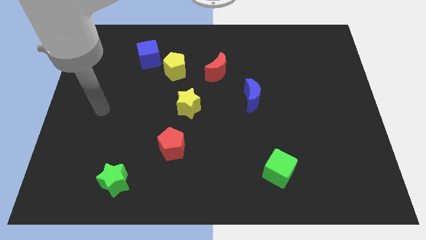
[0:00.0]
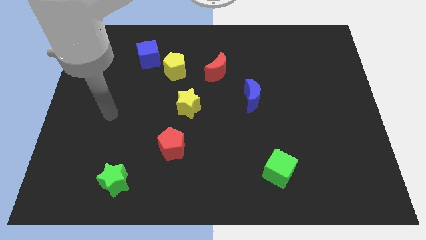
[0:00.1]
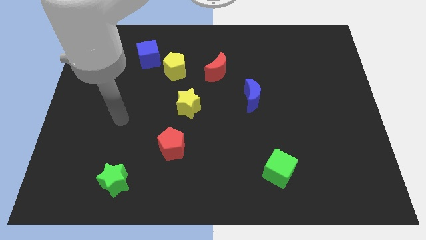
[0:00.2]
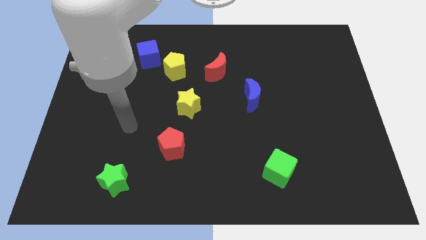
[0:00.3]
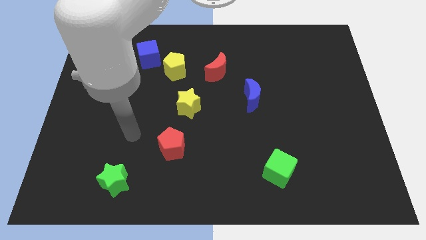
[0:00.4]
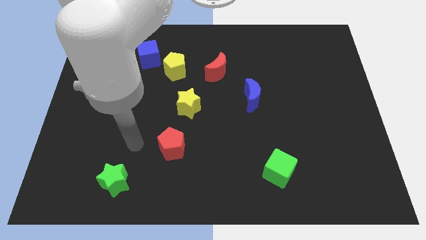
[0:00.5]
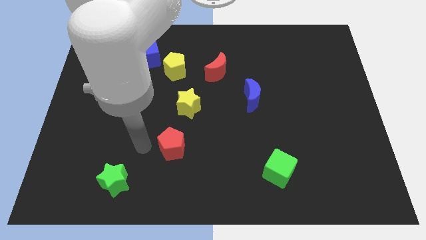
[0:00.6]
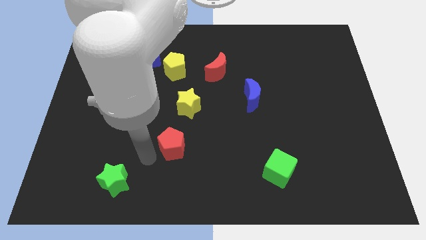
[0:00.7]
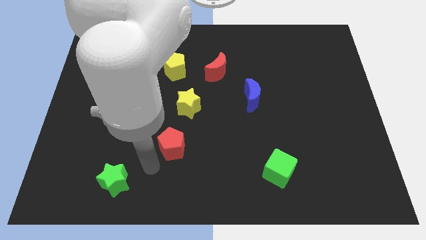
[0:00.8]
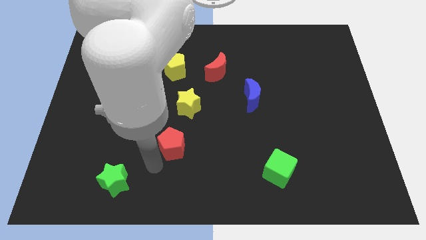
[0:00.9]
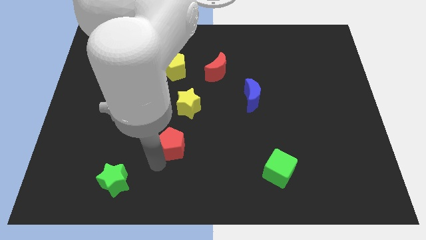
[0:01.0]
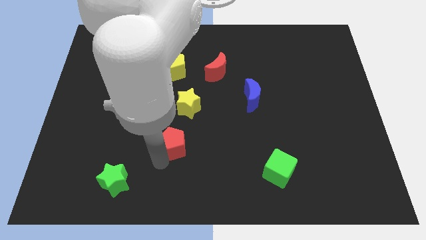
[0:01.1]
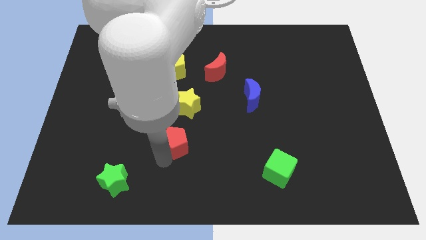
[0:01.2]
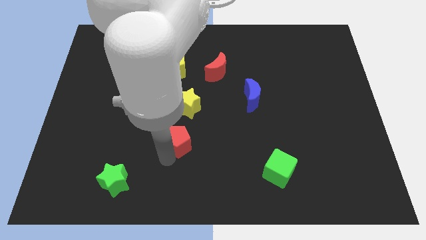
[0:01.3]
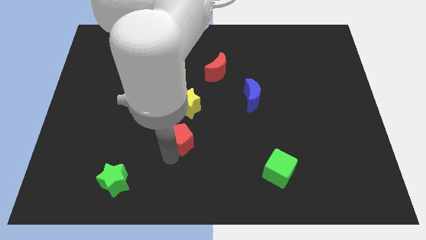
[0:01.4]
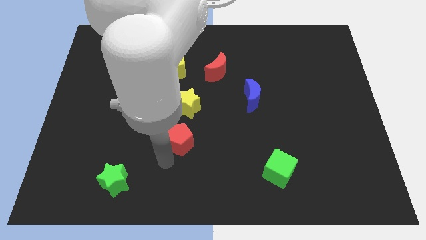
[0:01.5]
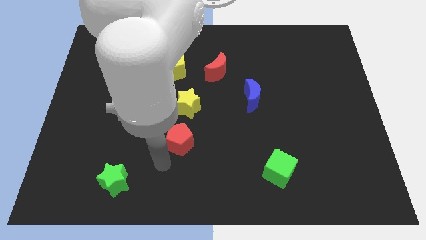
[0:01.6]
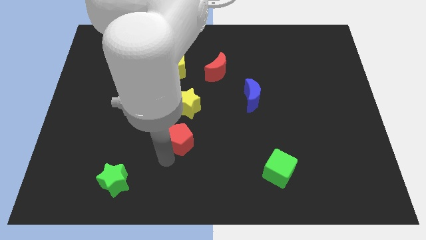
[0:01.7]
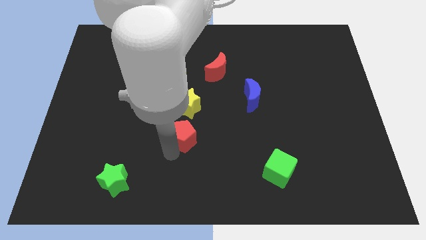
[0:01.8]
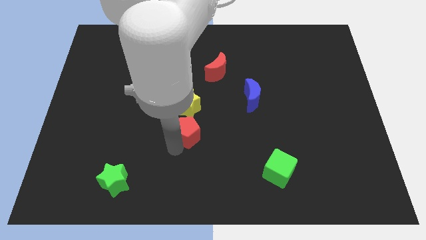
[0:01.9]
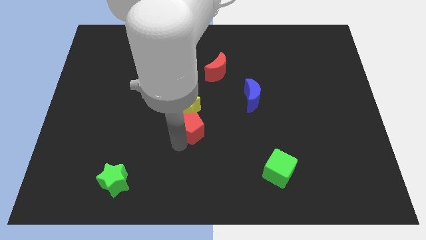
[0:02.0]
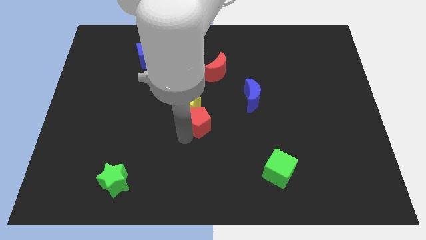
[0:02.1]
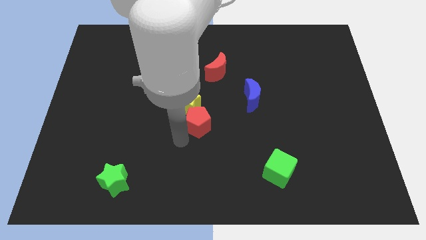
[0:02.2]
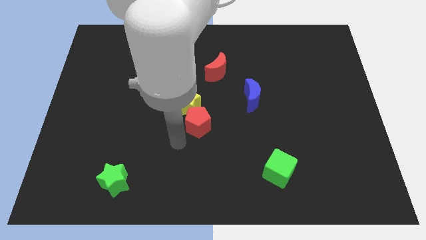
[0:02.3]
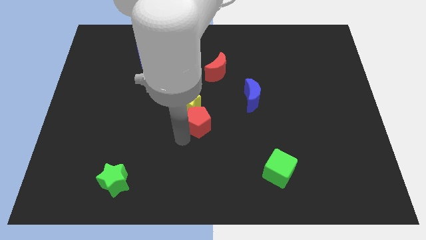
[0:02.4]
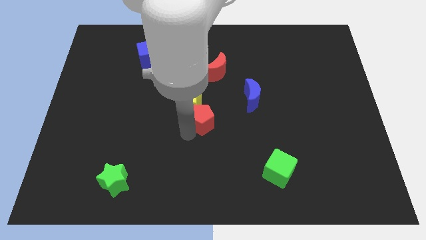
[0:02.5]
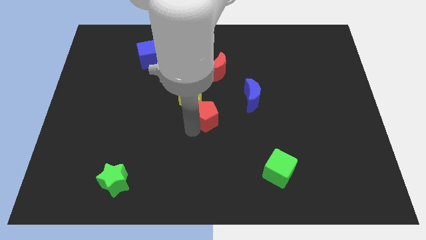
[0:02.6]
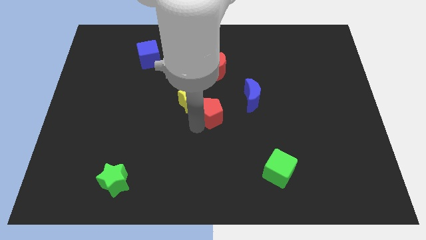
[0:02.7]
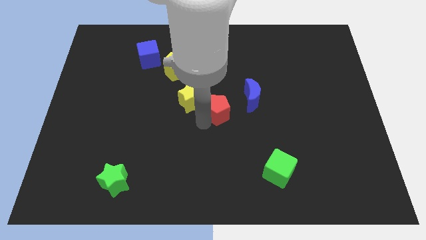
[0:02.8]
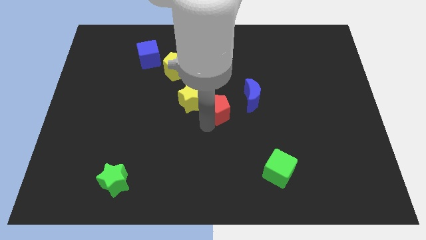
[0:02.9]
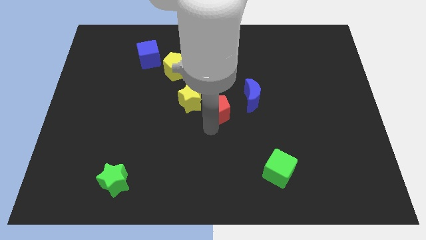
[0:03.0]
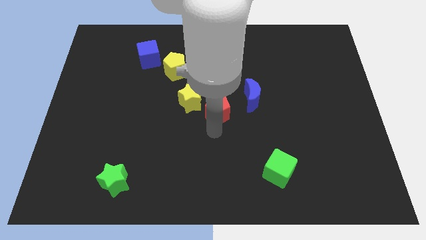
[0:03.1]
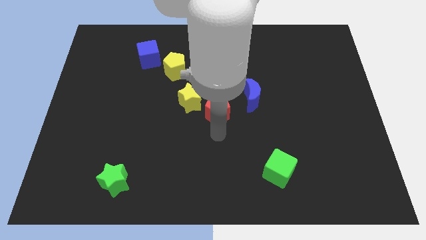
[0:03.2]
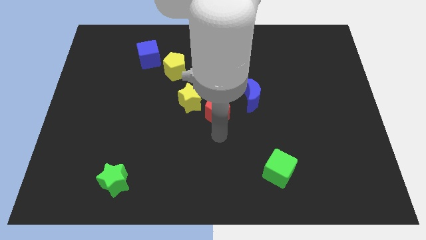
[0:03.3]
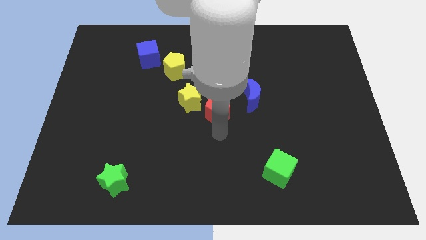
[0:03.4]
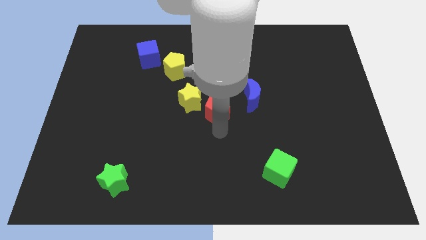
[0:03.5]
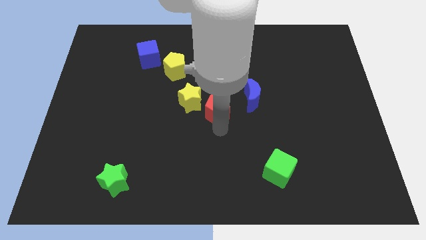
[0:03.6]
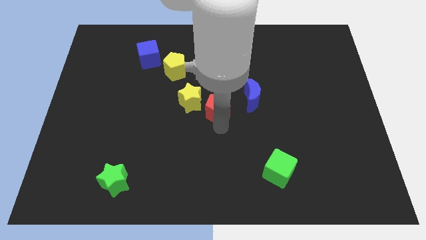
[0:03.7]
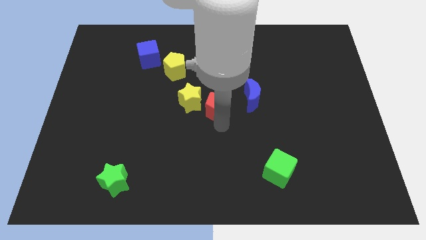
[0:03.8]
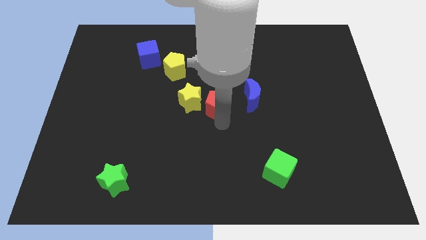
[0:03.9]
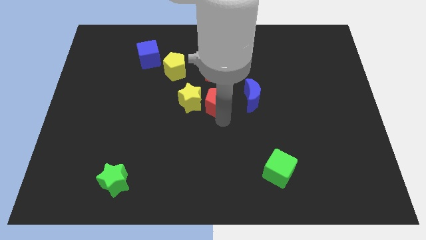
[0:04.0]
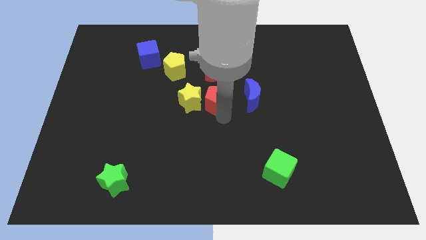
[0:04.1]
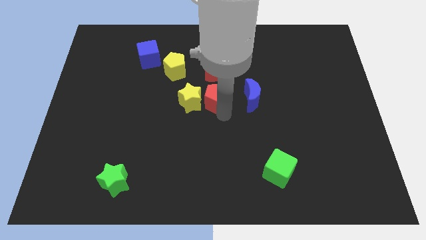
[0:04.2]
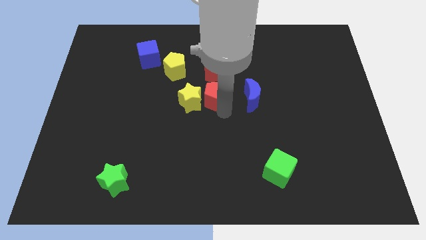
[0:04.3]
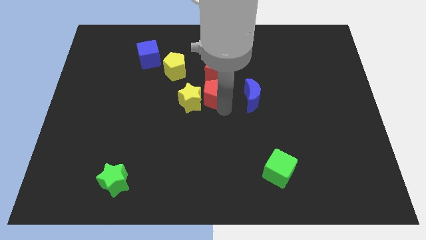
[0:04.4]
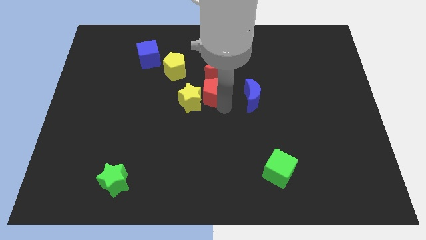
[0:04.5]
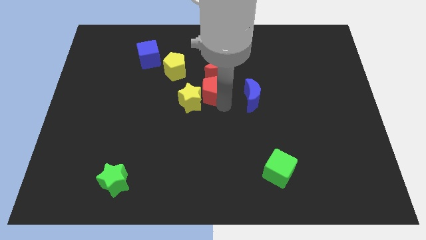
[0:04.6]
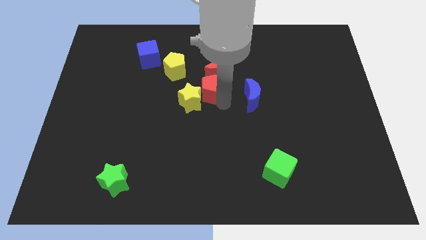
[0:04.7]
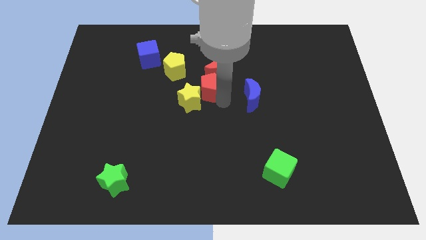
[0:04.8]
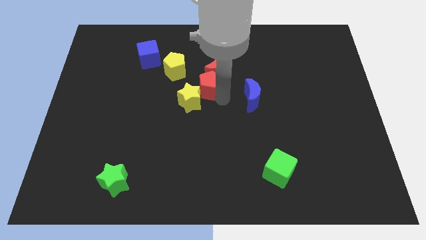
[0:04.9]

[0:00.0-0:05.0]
push the red pentagon close to the red moon

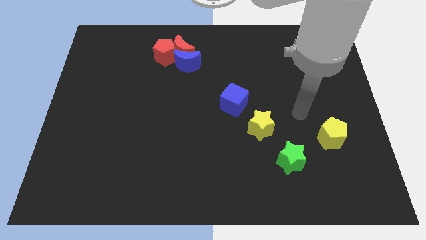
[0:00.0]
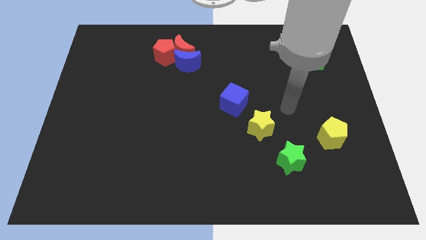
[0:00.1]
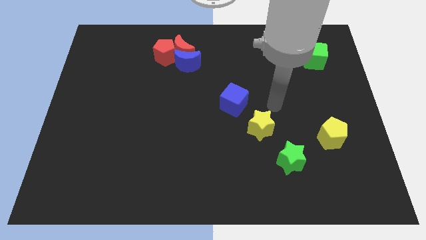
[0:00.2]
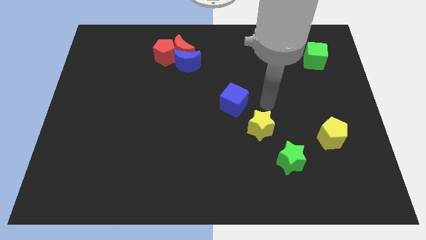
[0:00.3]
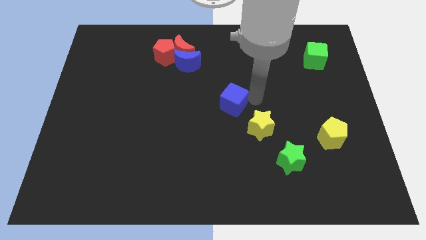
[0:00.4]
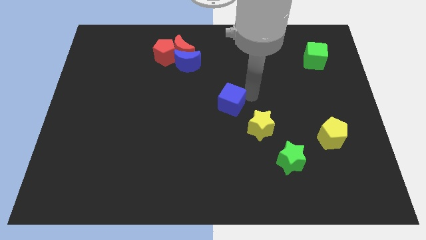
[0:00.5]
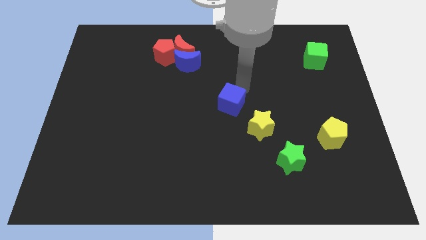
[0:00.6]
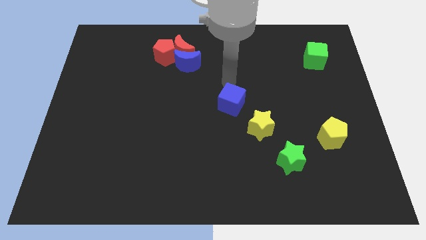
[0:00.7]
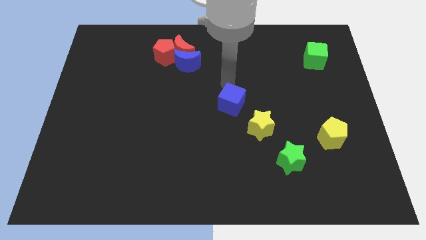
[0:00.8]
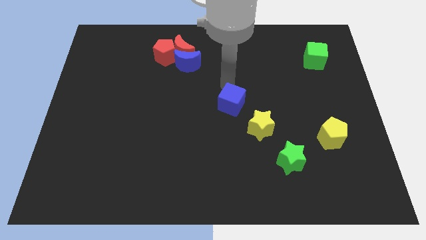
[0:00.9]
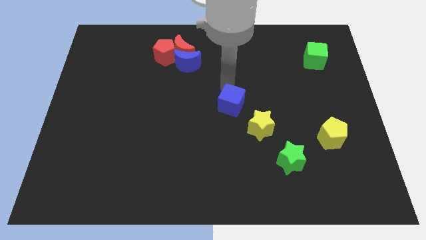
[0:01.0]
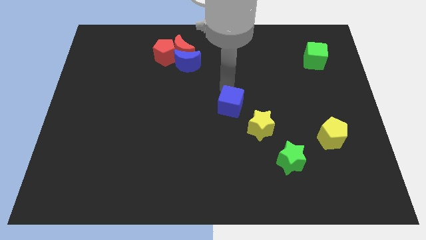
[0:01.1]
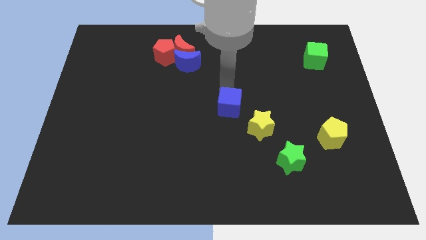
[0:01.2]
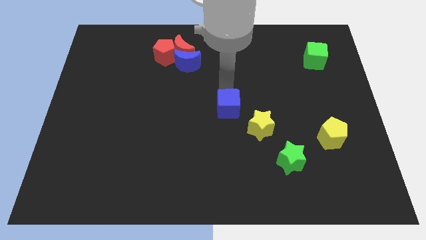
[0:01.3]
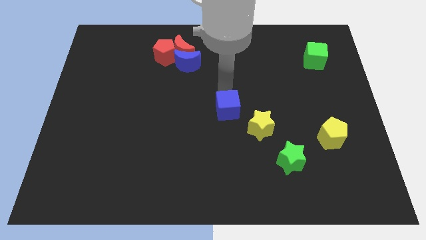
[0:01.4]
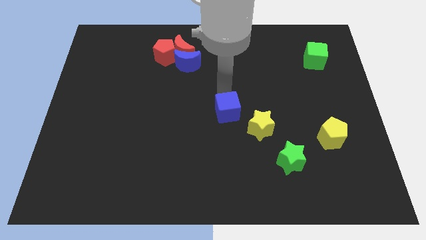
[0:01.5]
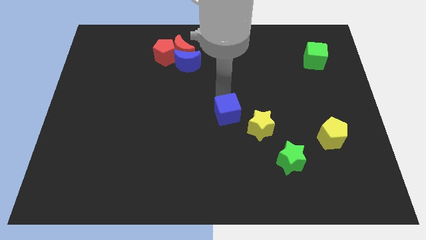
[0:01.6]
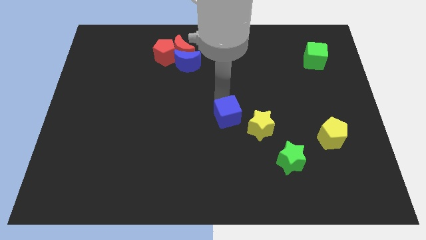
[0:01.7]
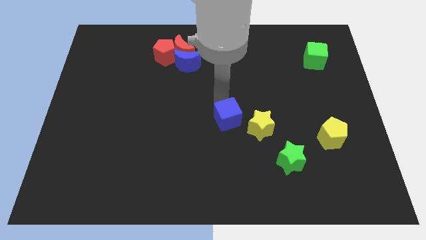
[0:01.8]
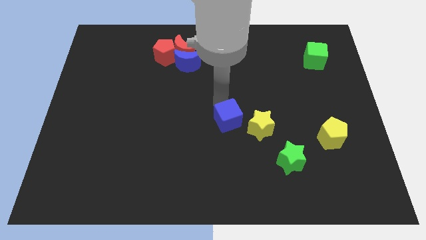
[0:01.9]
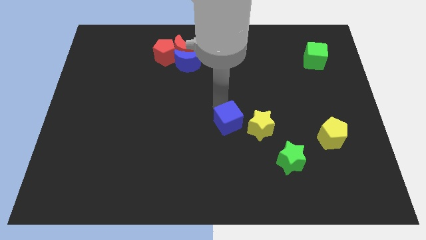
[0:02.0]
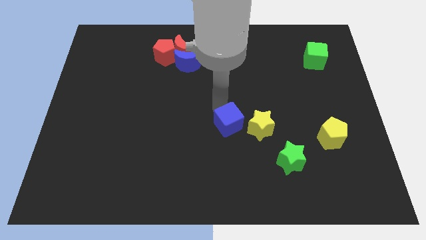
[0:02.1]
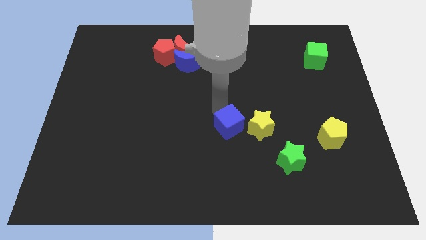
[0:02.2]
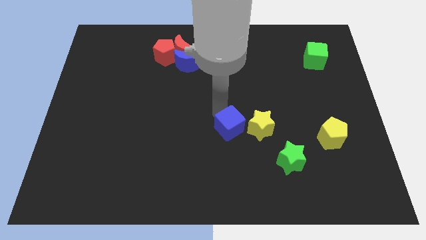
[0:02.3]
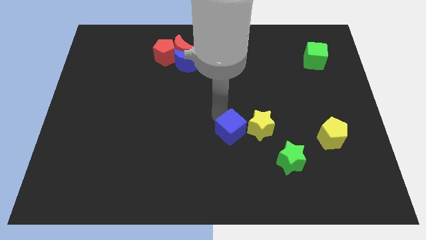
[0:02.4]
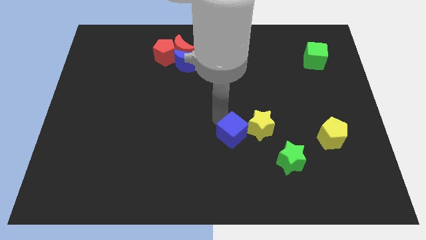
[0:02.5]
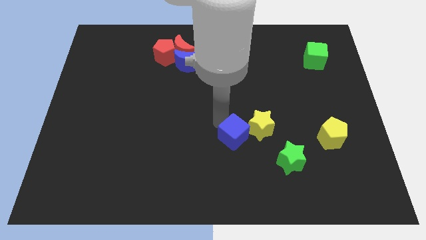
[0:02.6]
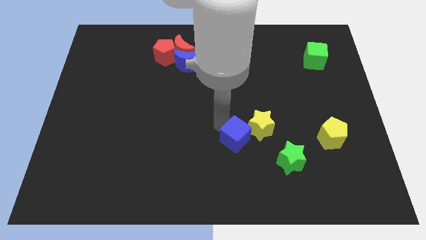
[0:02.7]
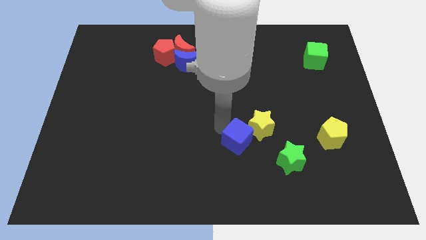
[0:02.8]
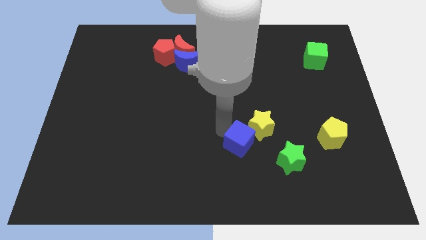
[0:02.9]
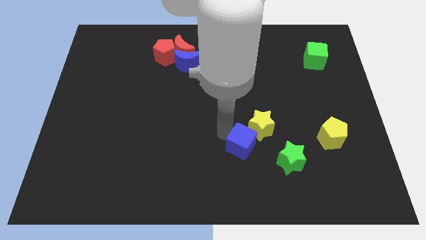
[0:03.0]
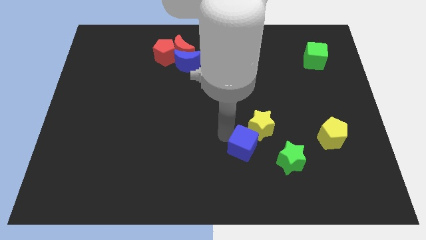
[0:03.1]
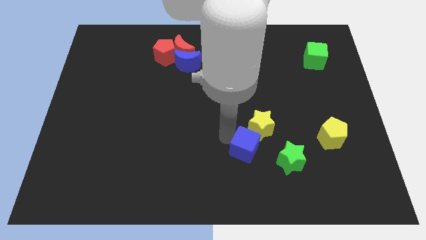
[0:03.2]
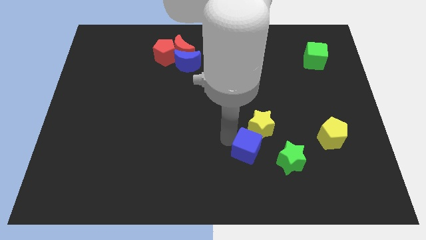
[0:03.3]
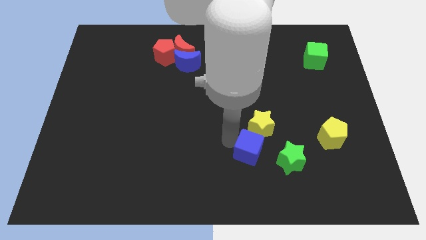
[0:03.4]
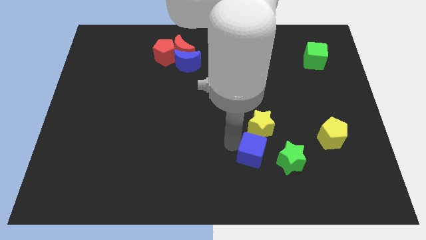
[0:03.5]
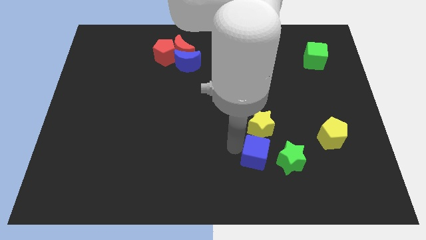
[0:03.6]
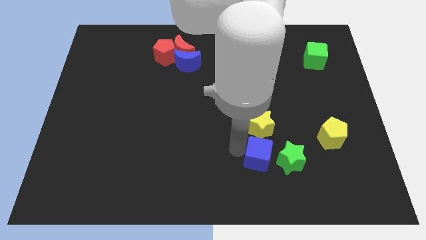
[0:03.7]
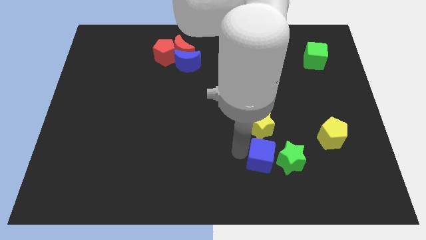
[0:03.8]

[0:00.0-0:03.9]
put the blue cube to the green star
